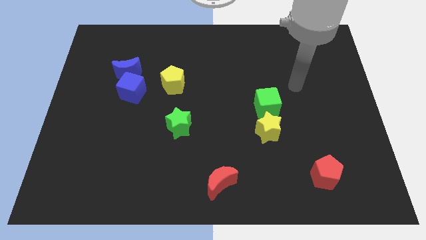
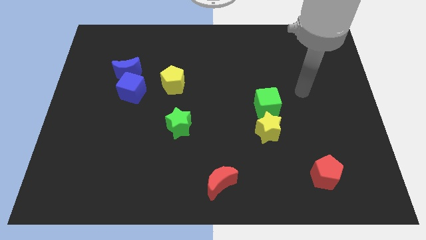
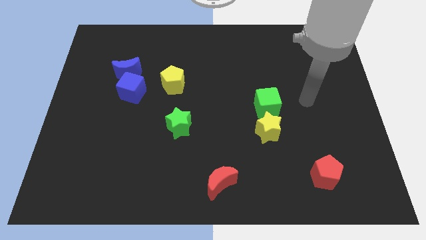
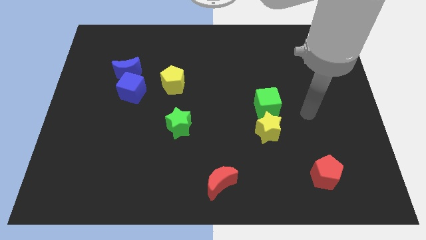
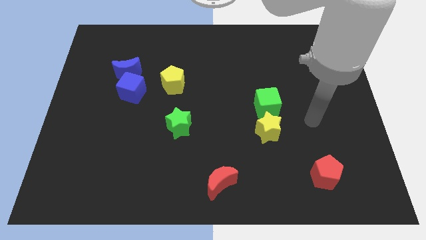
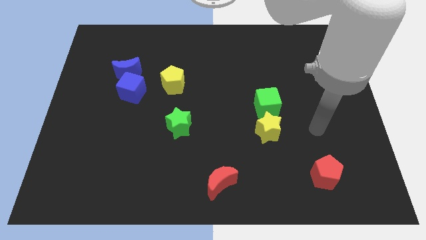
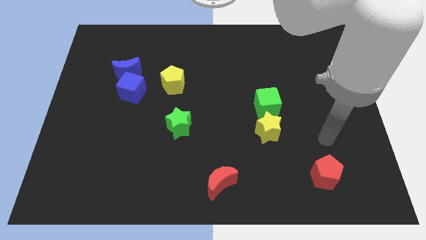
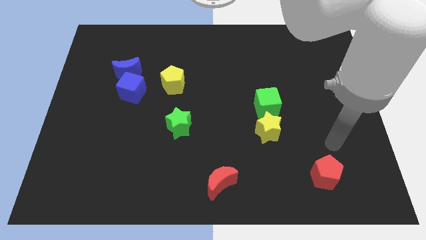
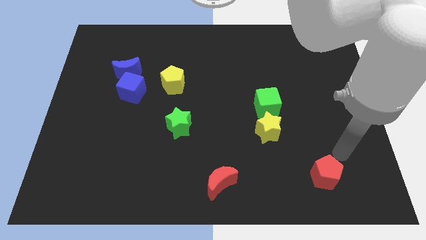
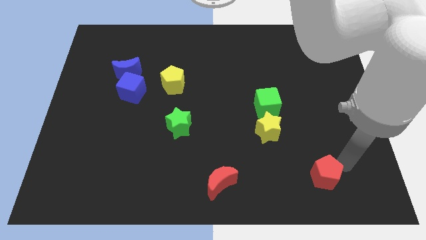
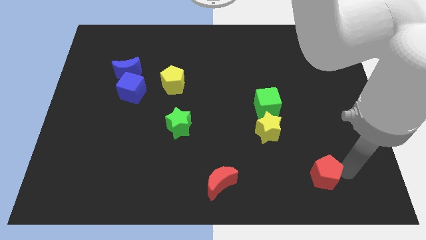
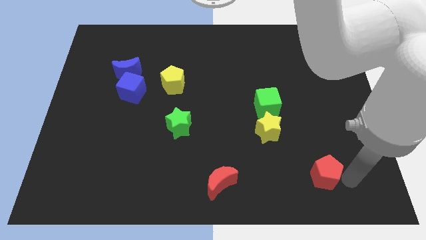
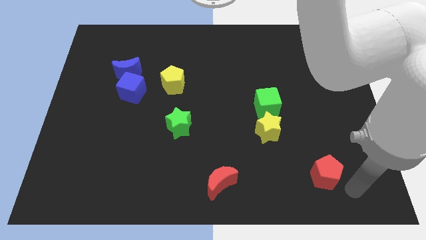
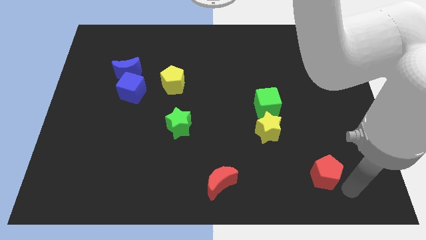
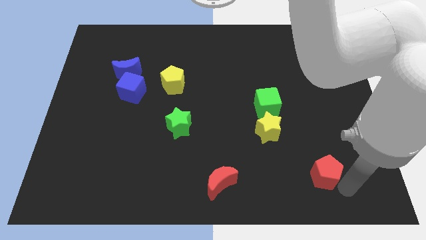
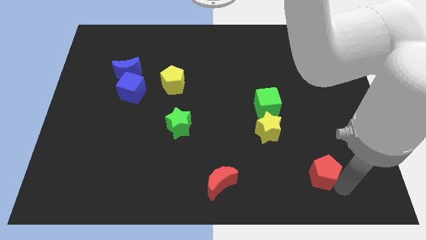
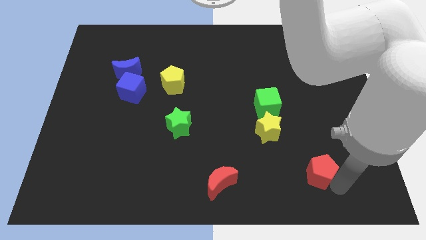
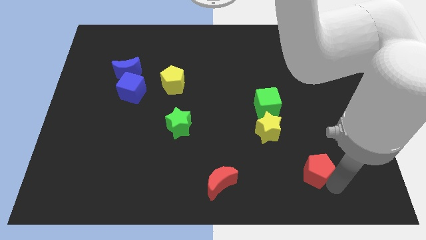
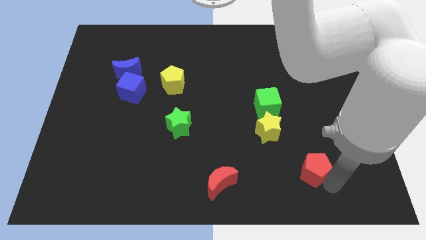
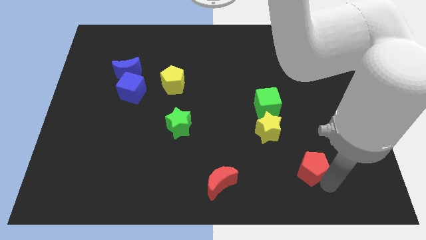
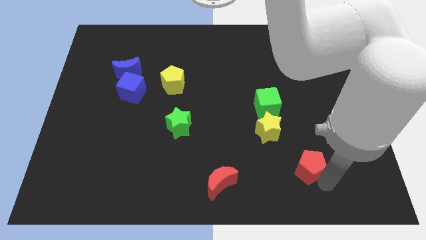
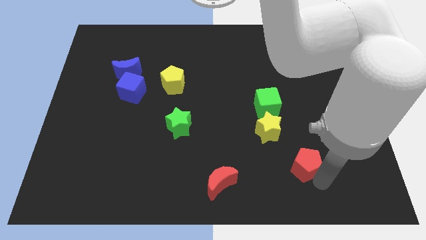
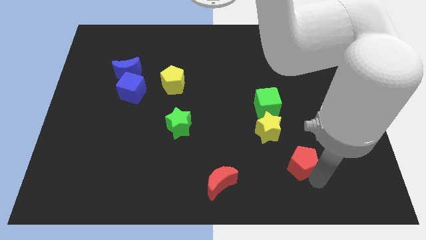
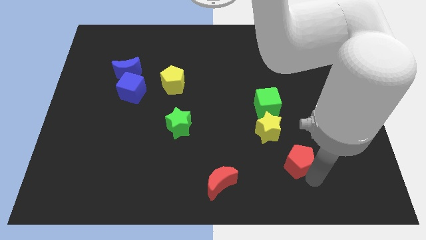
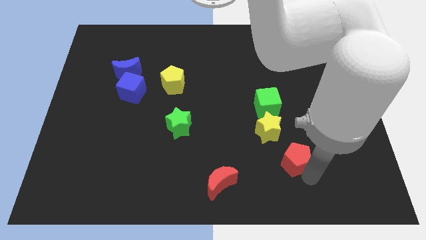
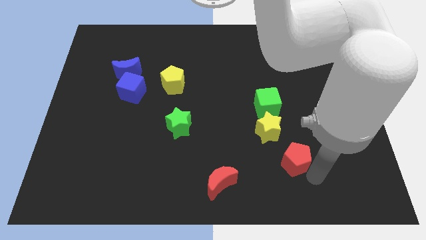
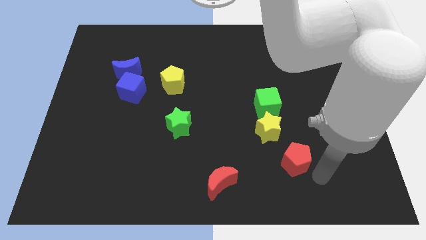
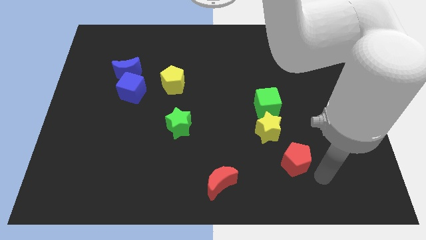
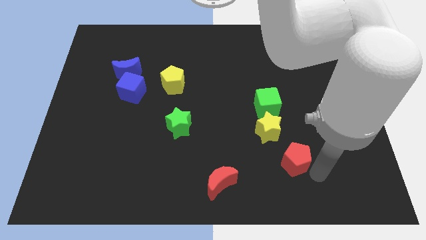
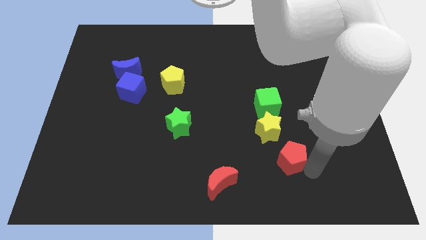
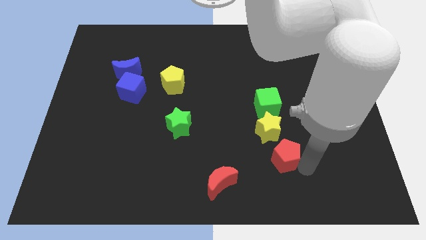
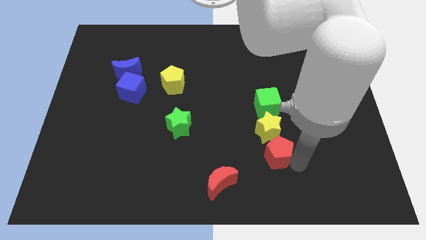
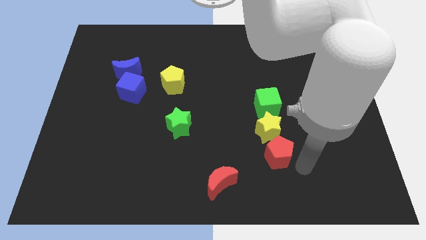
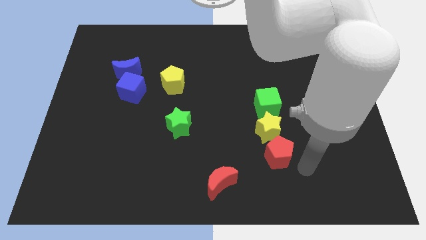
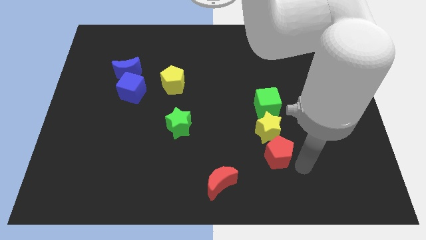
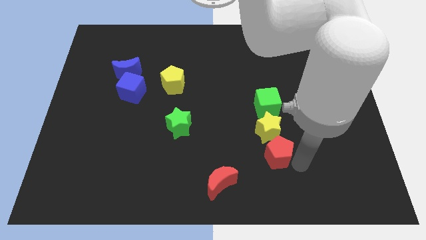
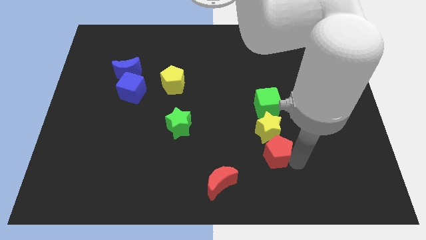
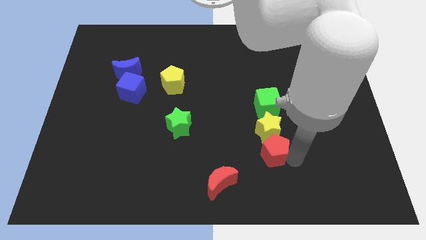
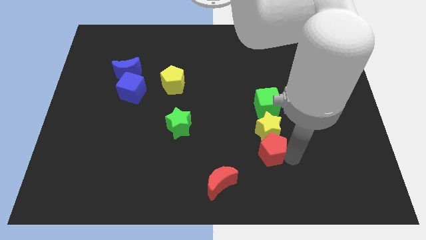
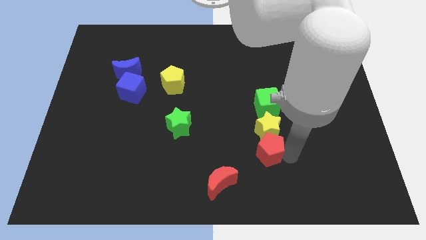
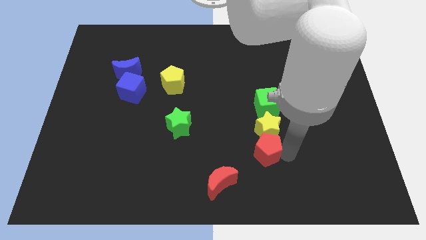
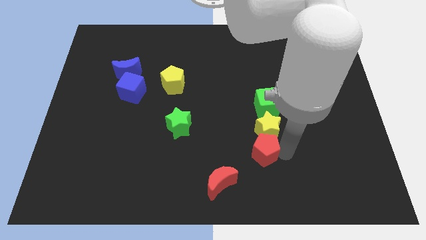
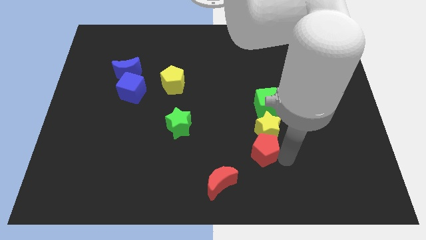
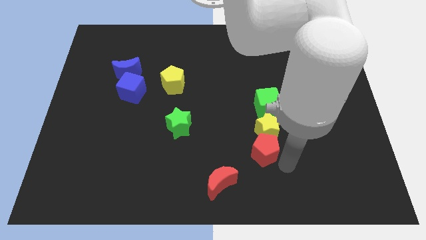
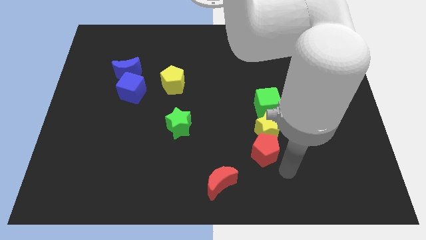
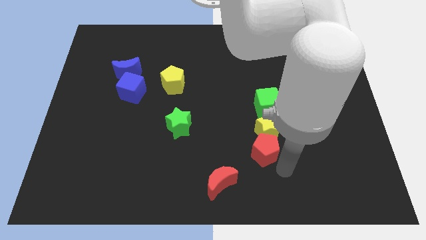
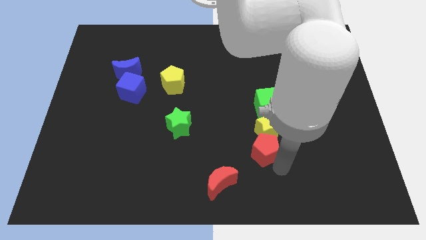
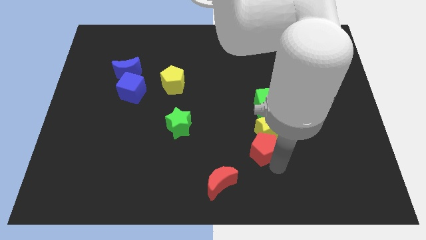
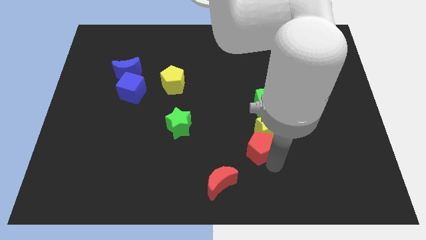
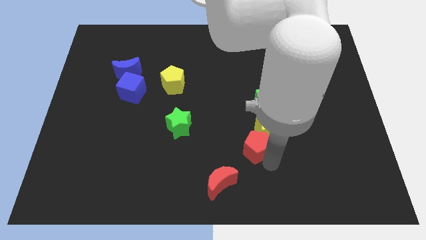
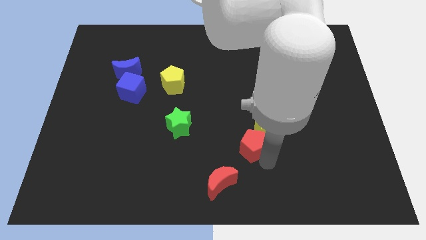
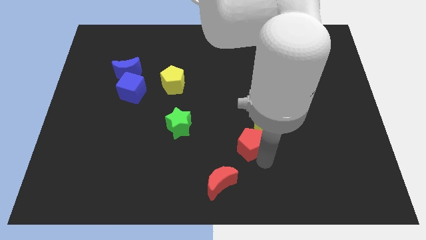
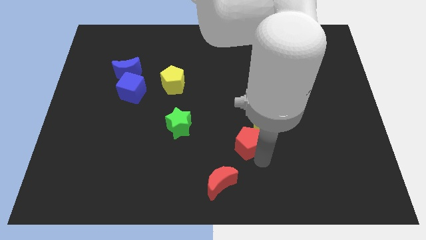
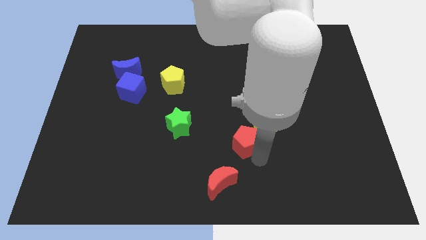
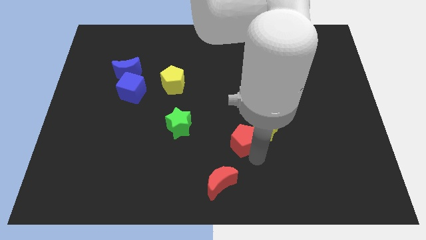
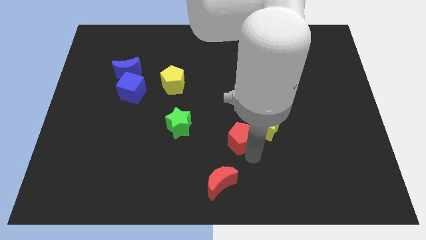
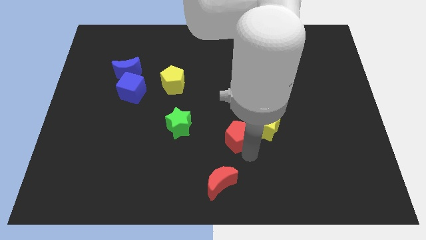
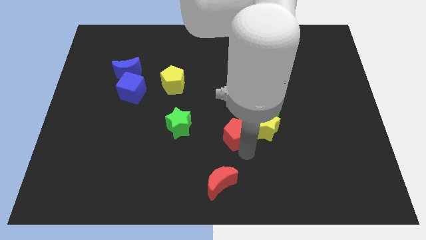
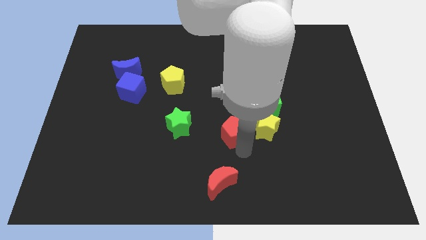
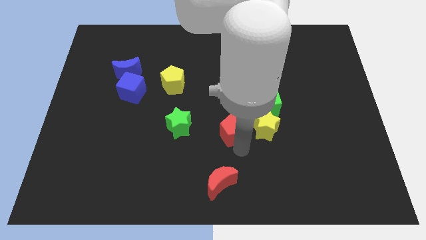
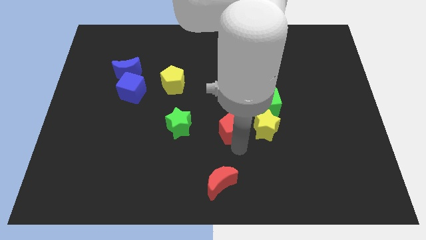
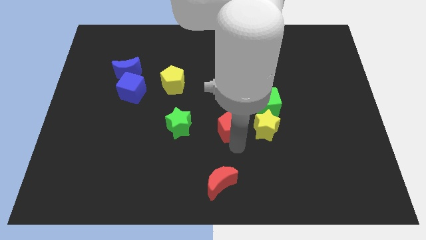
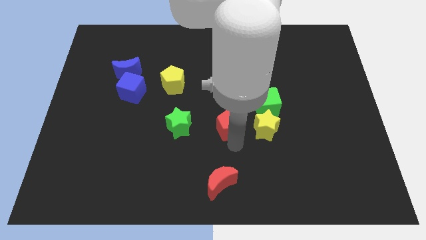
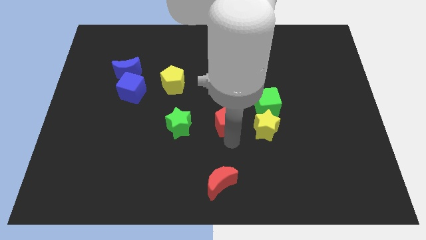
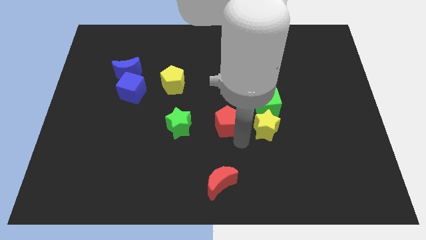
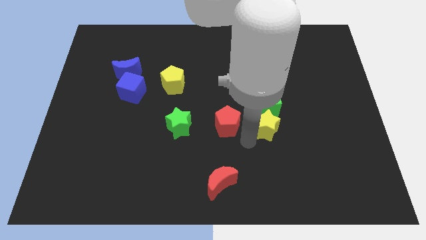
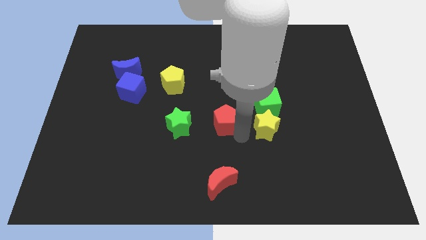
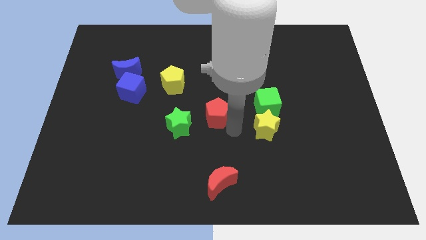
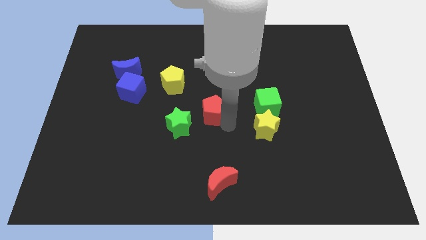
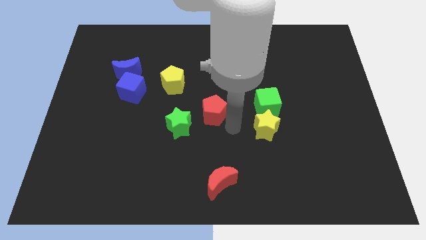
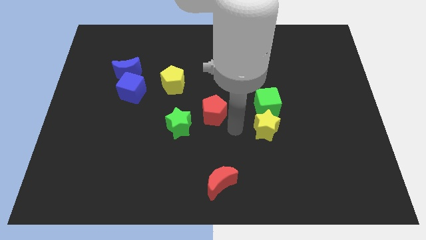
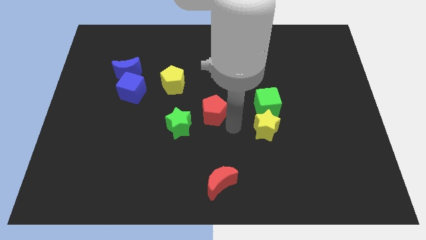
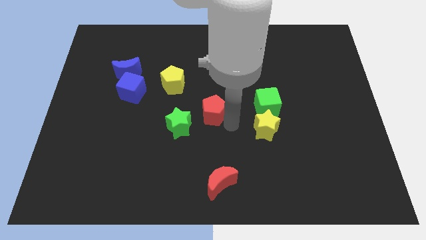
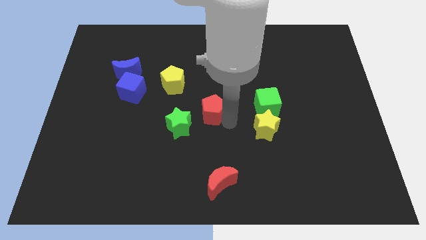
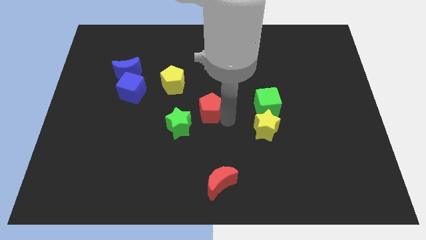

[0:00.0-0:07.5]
move the red pentagon to the bottom right of the yellow pentagon
